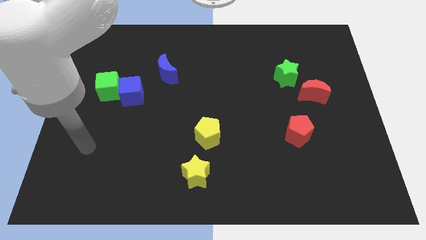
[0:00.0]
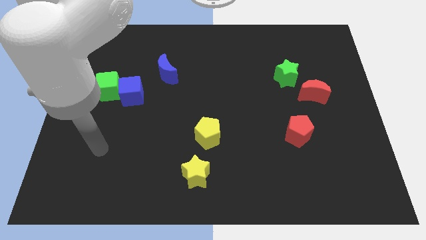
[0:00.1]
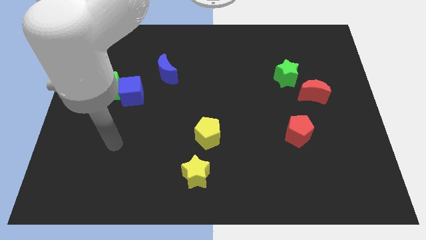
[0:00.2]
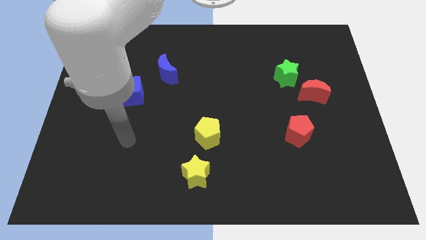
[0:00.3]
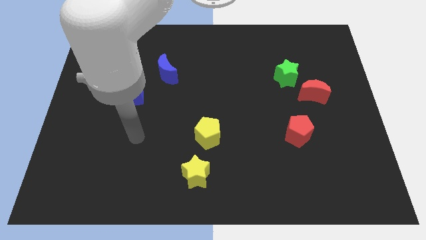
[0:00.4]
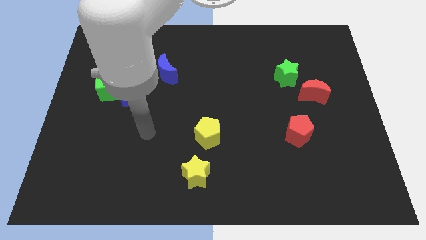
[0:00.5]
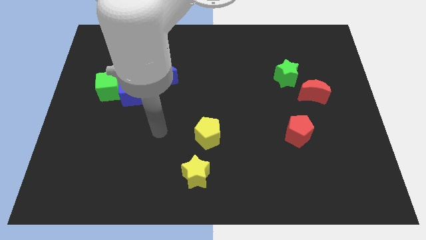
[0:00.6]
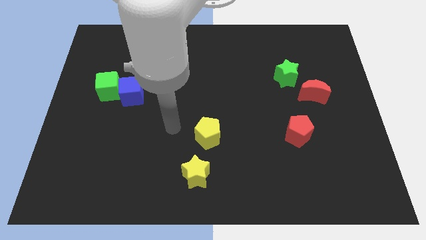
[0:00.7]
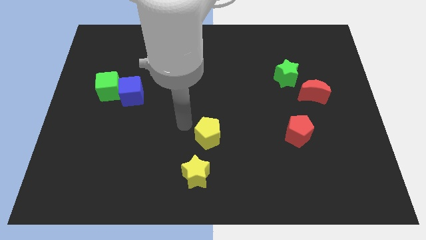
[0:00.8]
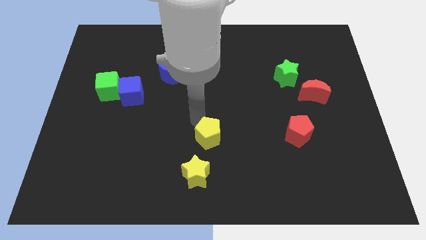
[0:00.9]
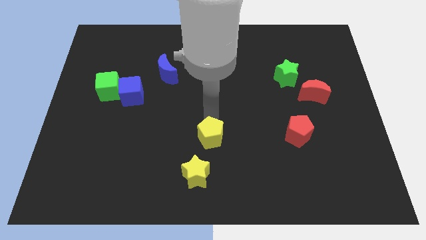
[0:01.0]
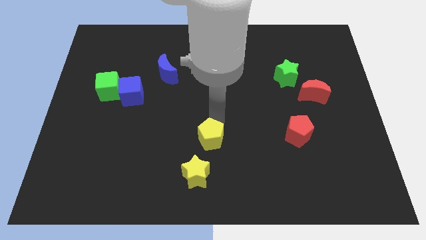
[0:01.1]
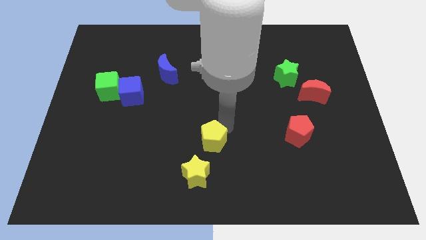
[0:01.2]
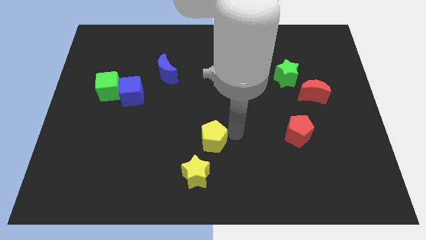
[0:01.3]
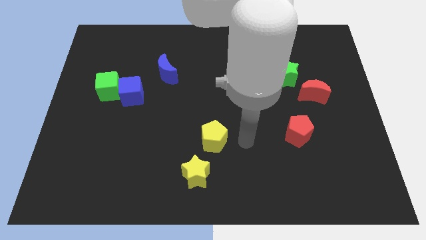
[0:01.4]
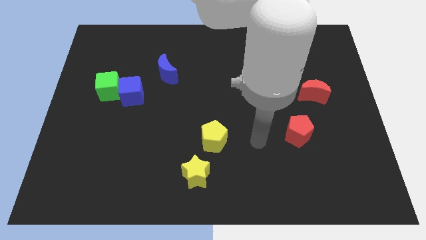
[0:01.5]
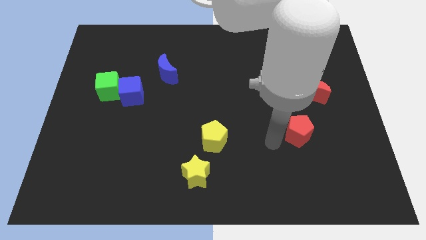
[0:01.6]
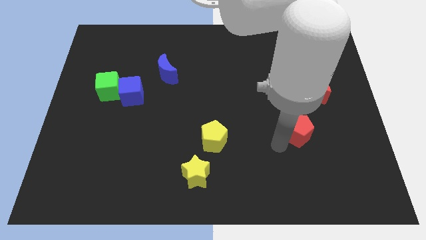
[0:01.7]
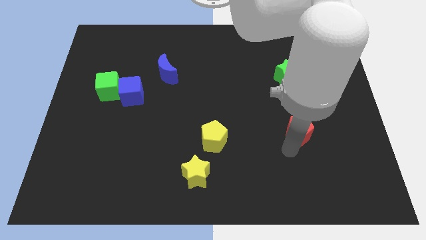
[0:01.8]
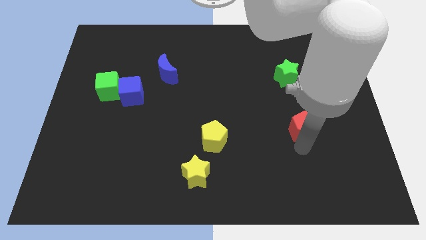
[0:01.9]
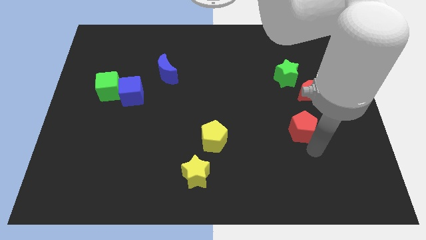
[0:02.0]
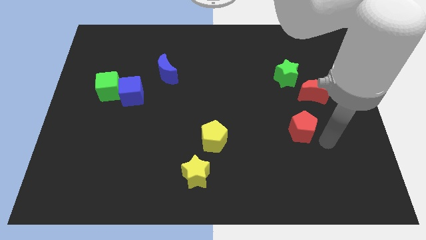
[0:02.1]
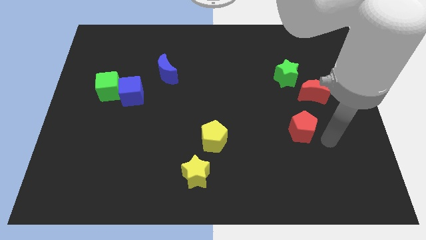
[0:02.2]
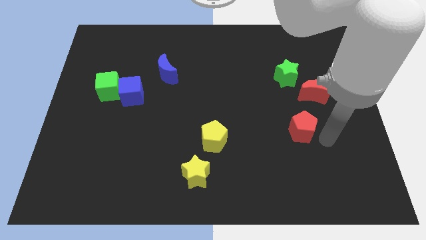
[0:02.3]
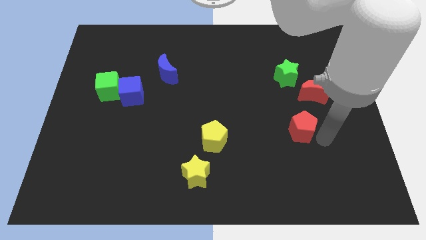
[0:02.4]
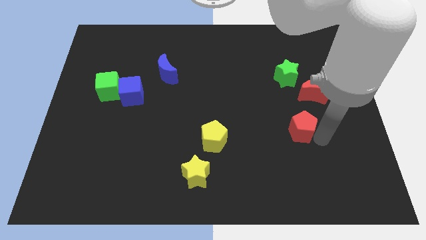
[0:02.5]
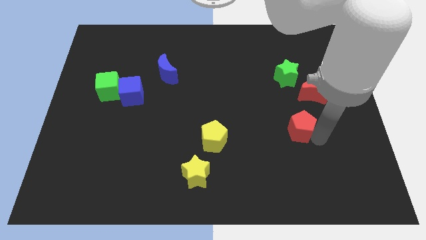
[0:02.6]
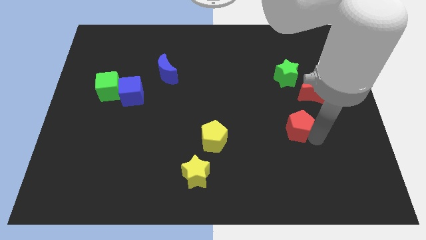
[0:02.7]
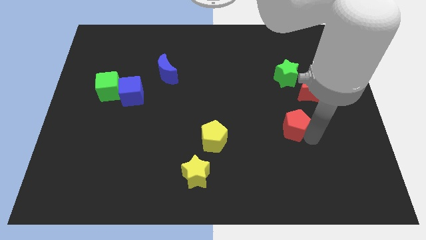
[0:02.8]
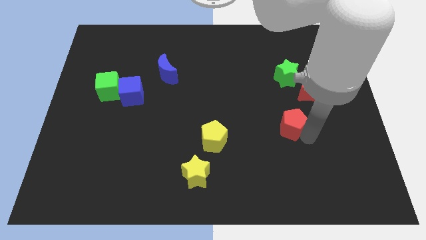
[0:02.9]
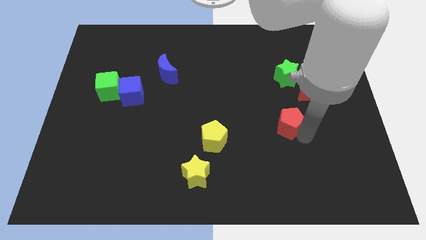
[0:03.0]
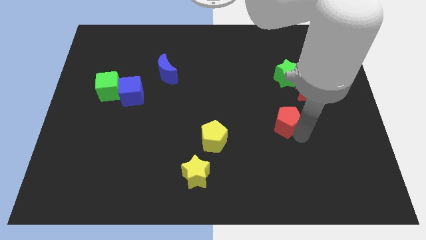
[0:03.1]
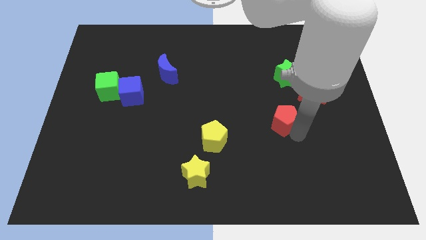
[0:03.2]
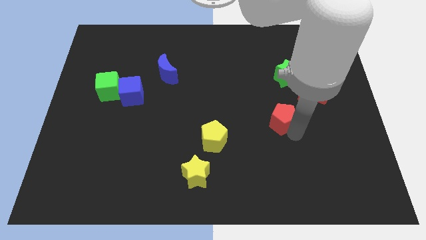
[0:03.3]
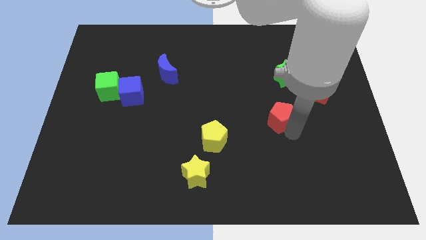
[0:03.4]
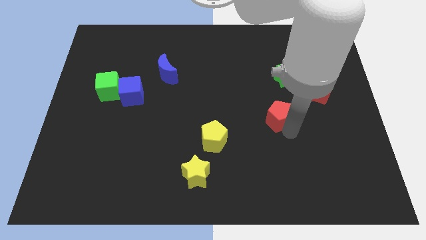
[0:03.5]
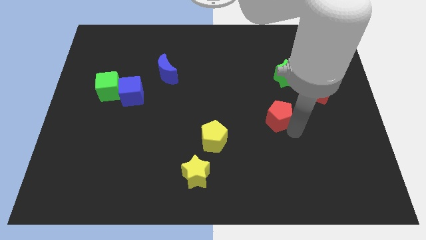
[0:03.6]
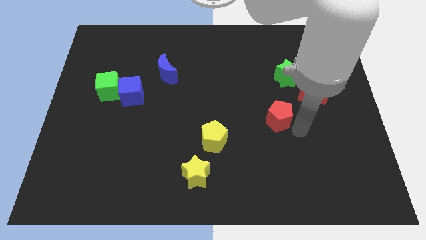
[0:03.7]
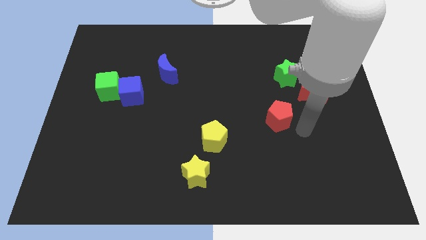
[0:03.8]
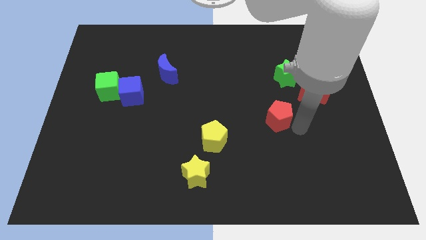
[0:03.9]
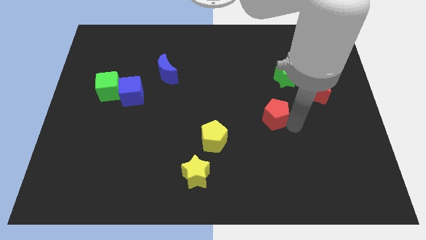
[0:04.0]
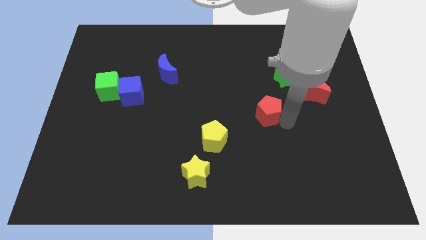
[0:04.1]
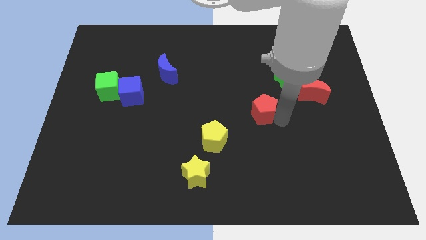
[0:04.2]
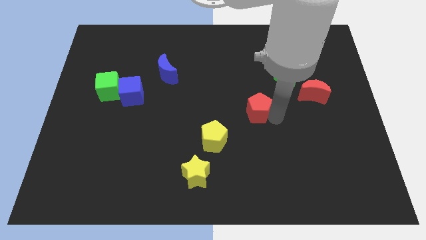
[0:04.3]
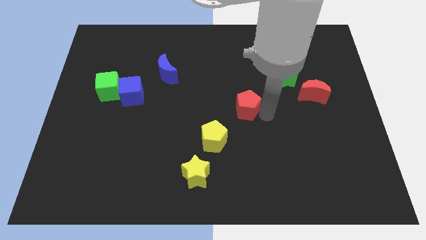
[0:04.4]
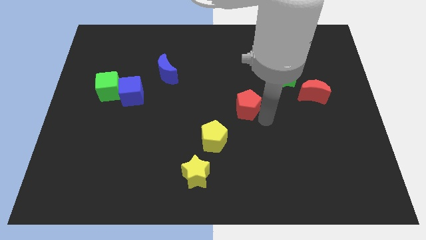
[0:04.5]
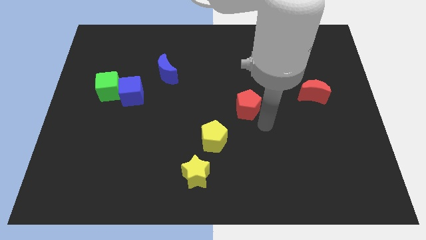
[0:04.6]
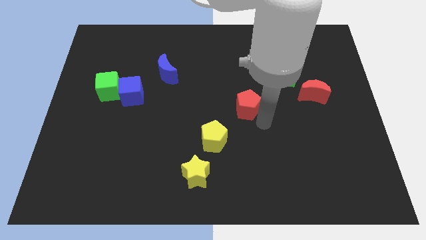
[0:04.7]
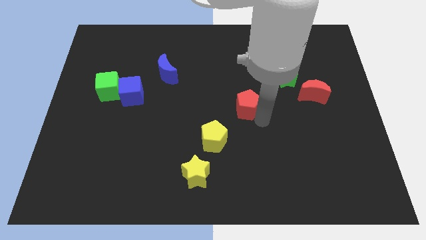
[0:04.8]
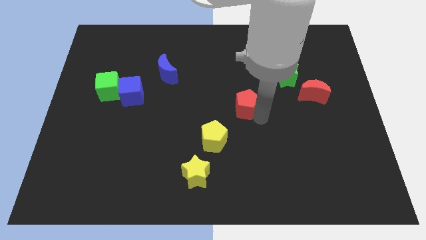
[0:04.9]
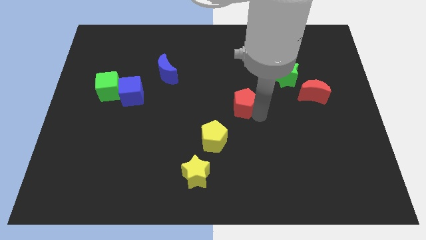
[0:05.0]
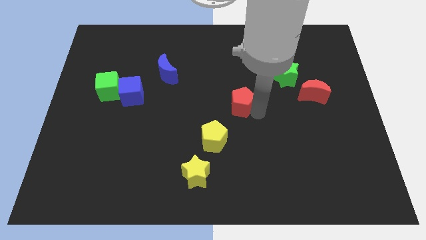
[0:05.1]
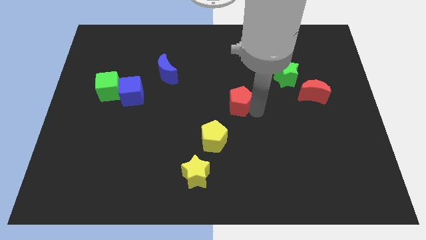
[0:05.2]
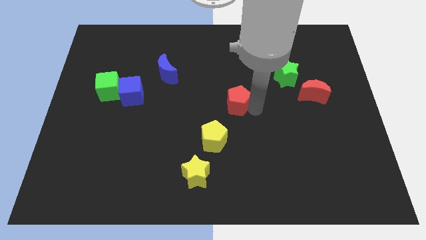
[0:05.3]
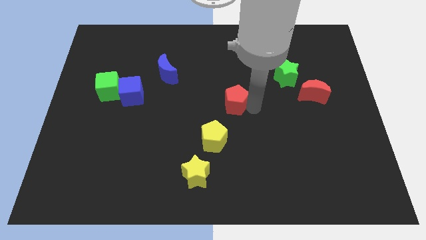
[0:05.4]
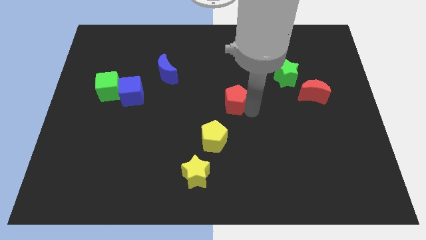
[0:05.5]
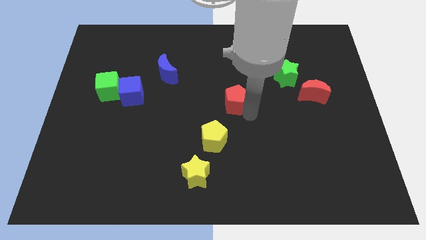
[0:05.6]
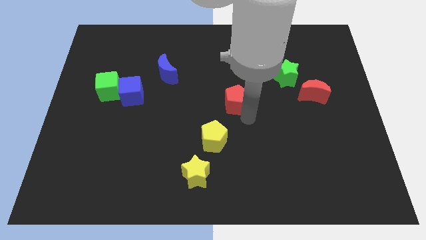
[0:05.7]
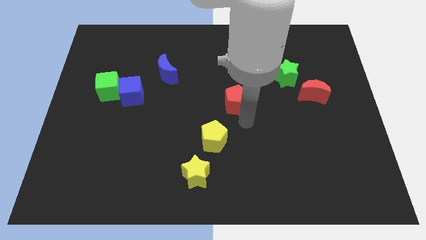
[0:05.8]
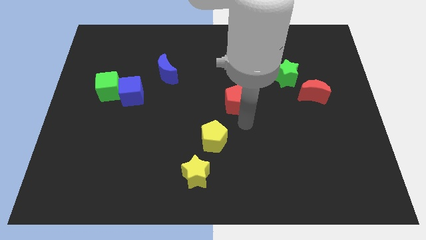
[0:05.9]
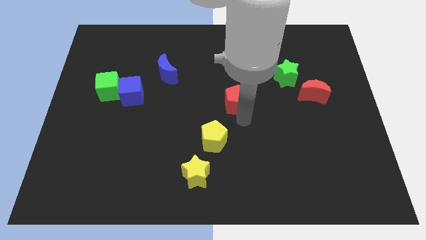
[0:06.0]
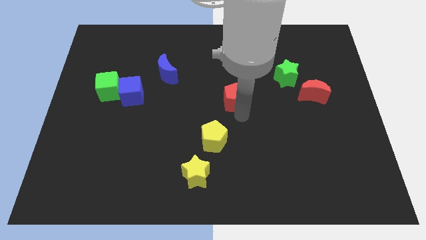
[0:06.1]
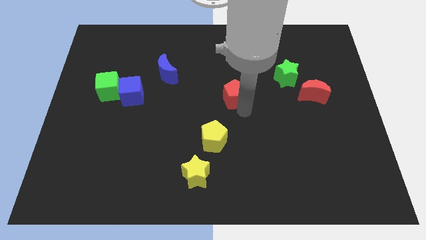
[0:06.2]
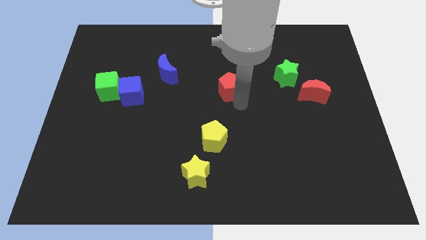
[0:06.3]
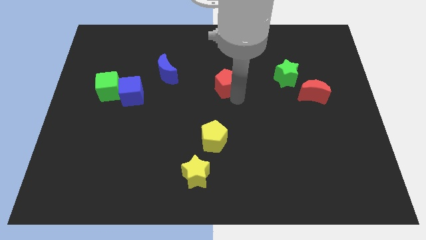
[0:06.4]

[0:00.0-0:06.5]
move the red pentagon diagonally up and to the left

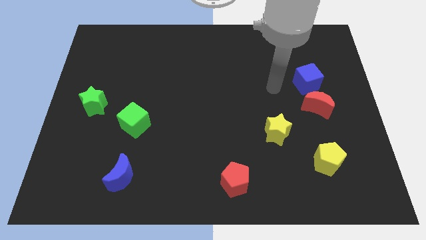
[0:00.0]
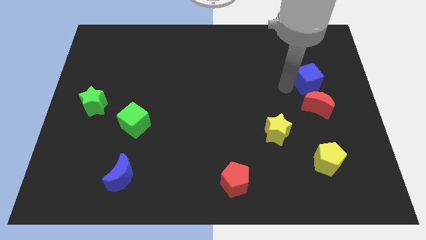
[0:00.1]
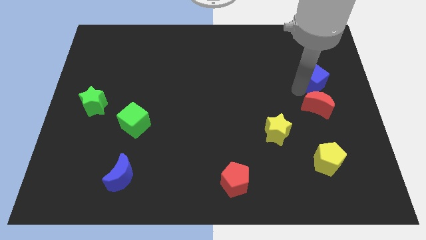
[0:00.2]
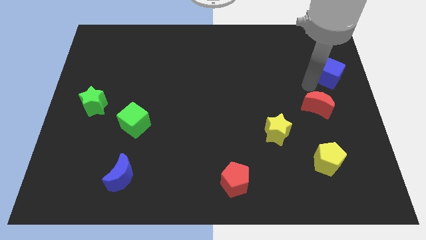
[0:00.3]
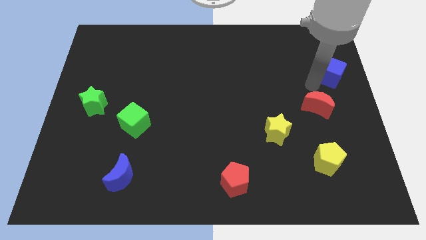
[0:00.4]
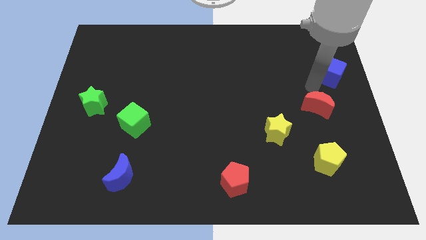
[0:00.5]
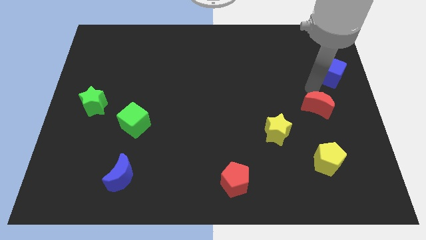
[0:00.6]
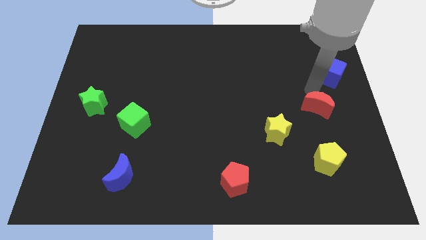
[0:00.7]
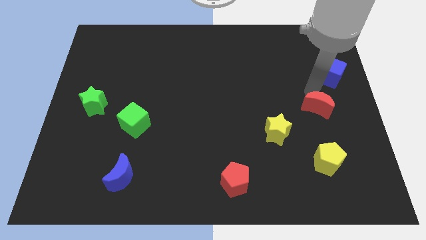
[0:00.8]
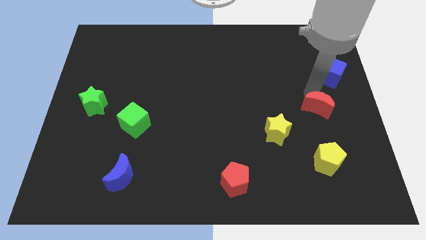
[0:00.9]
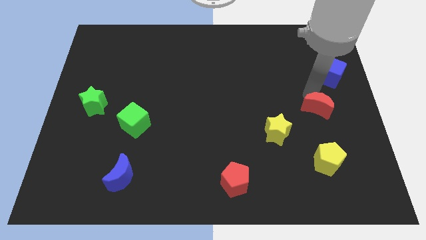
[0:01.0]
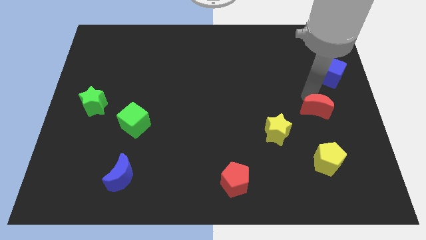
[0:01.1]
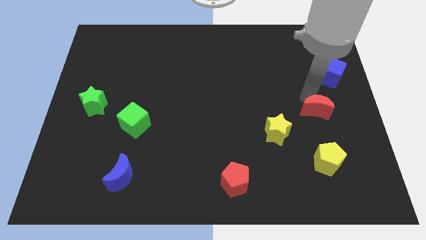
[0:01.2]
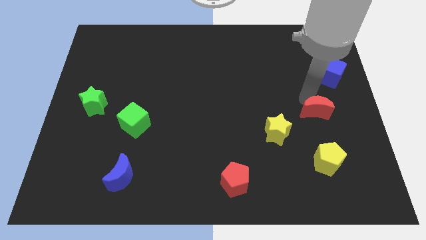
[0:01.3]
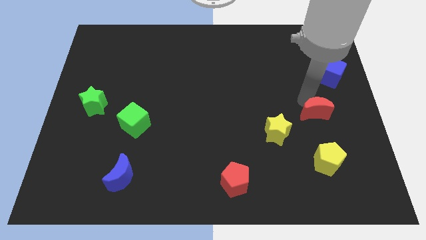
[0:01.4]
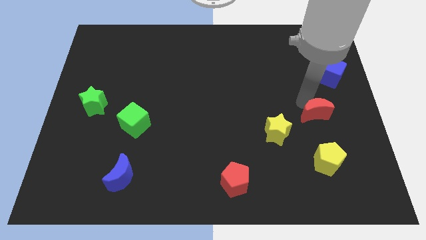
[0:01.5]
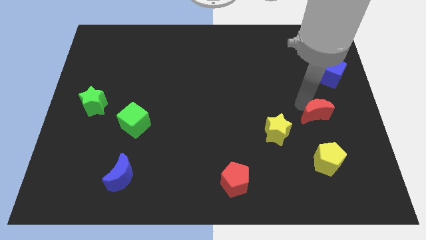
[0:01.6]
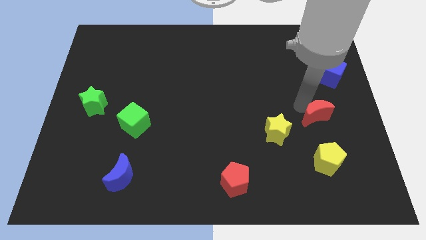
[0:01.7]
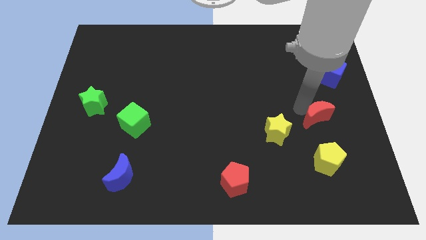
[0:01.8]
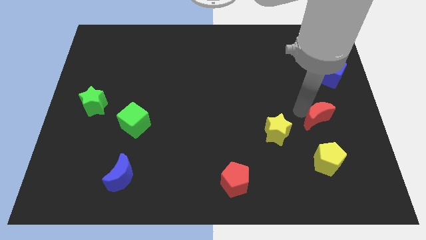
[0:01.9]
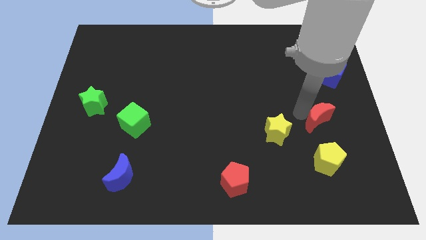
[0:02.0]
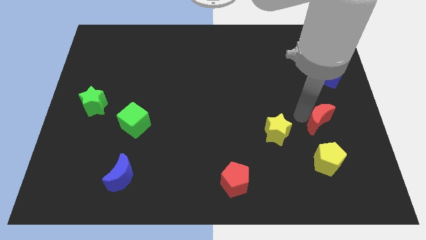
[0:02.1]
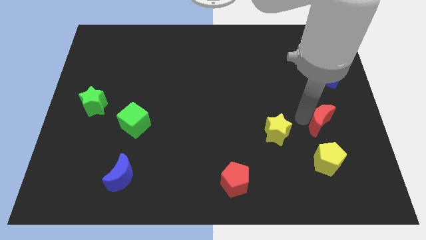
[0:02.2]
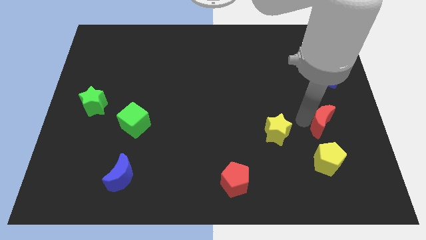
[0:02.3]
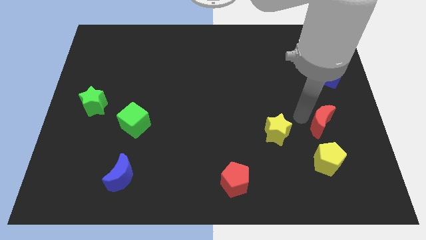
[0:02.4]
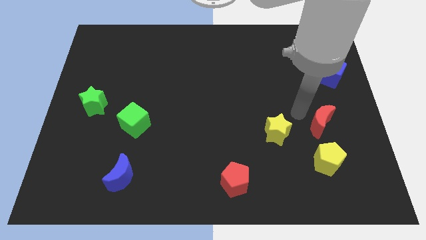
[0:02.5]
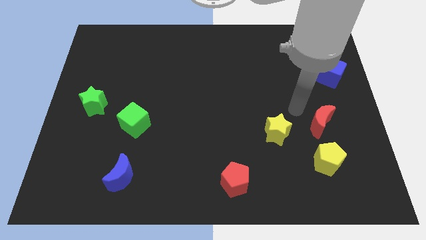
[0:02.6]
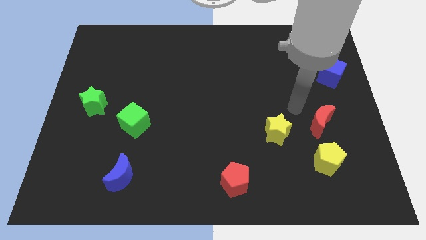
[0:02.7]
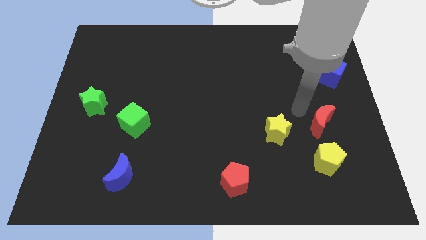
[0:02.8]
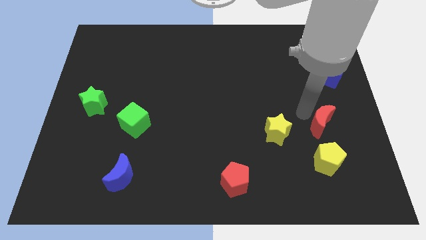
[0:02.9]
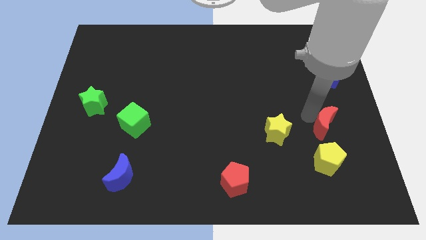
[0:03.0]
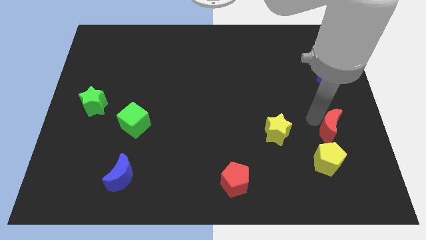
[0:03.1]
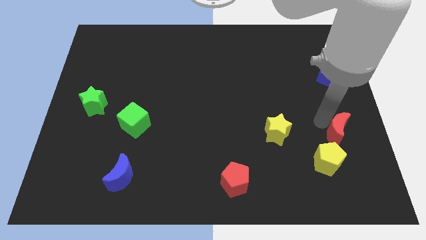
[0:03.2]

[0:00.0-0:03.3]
slide the red moon a bit downwards
